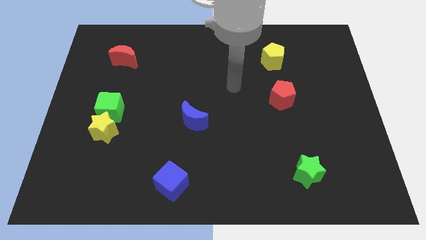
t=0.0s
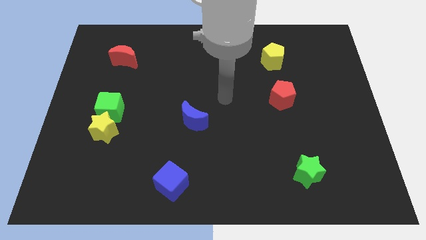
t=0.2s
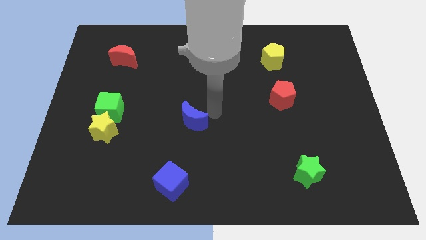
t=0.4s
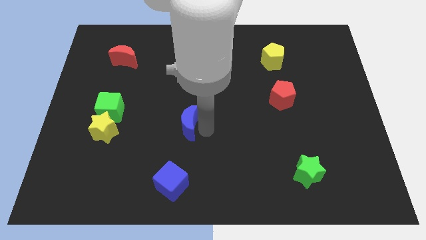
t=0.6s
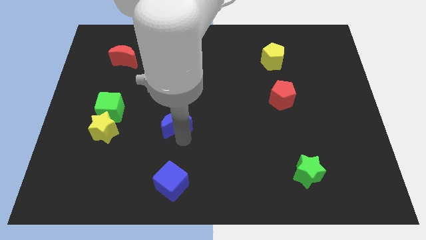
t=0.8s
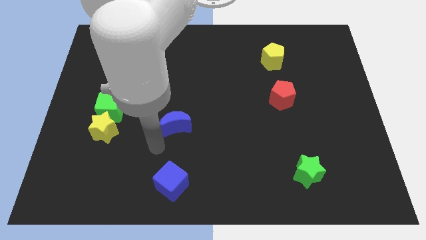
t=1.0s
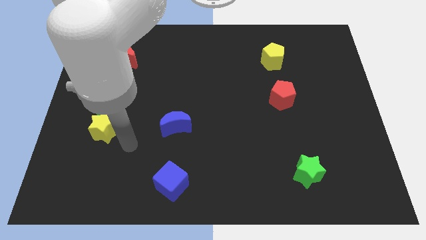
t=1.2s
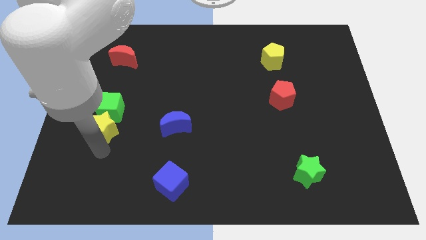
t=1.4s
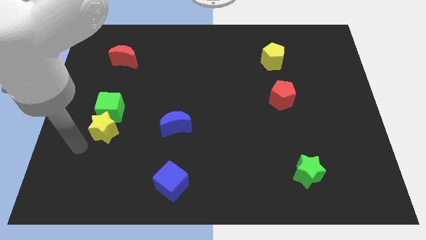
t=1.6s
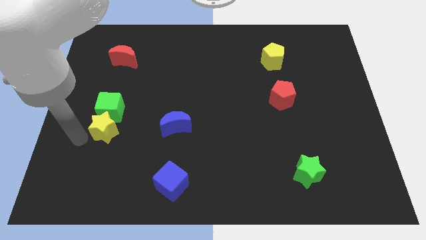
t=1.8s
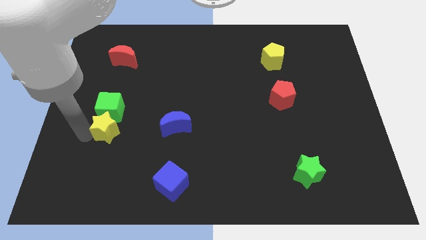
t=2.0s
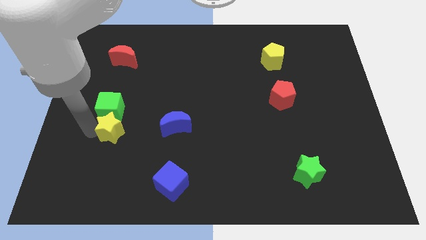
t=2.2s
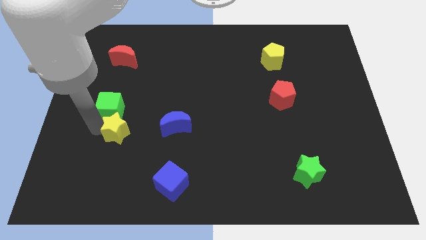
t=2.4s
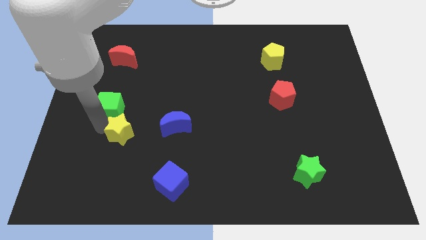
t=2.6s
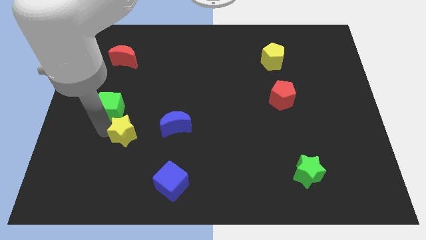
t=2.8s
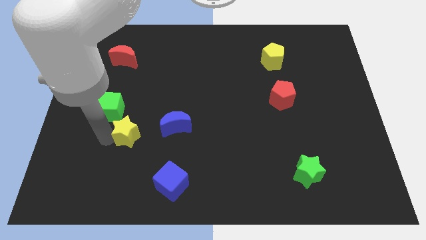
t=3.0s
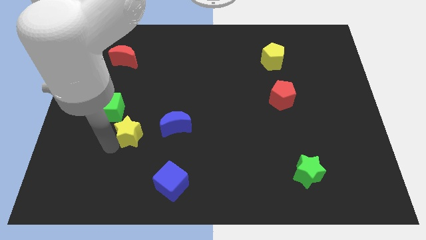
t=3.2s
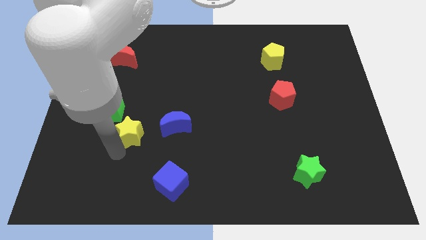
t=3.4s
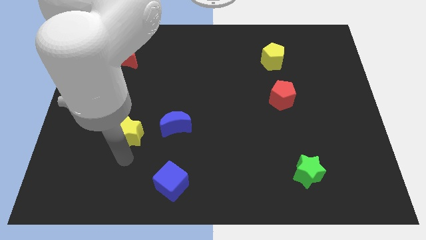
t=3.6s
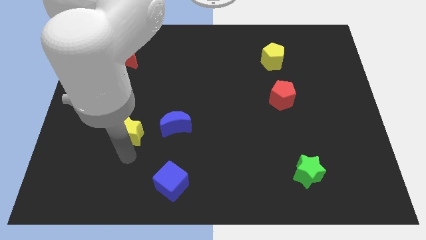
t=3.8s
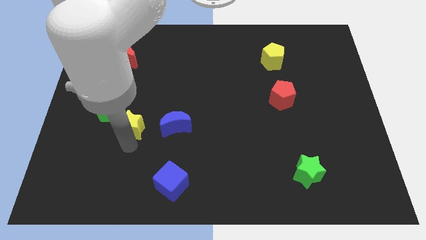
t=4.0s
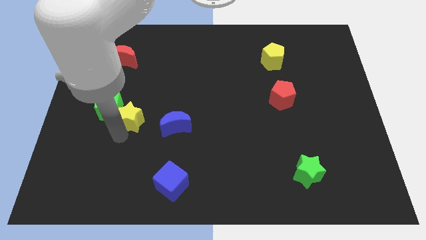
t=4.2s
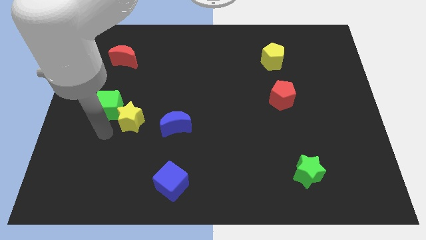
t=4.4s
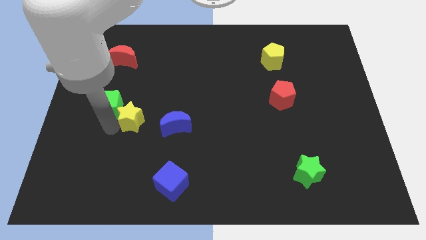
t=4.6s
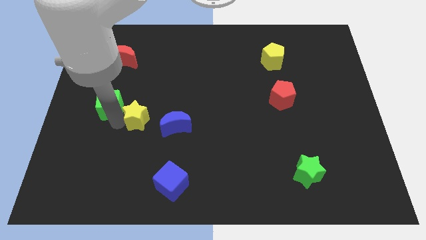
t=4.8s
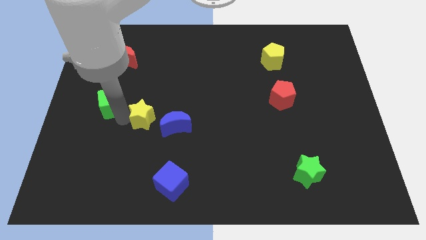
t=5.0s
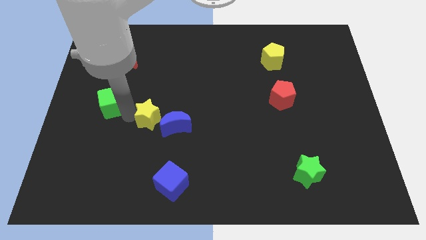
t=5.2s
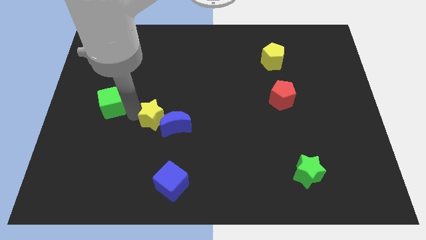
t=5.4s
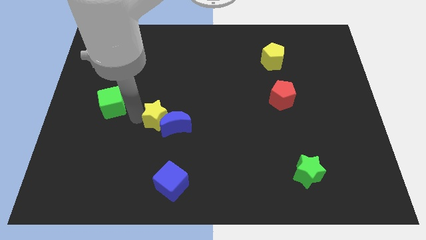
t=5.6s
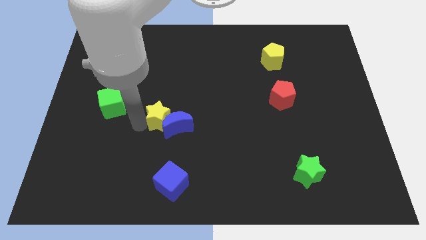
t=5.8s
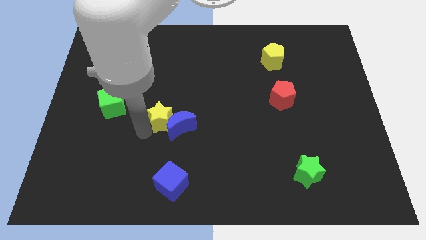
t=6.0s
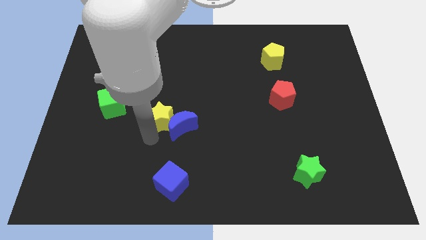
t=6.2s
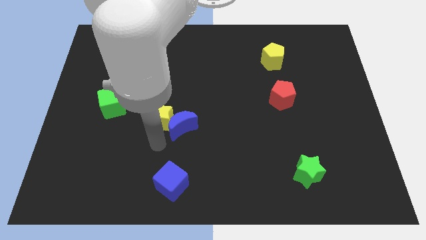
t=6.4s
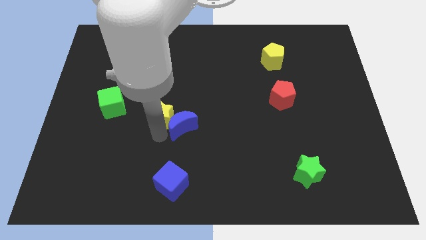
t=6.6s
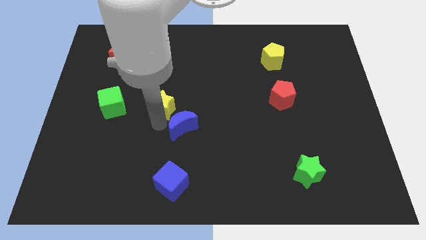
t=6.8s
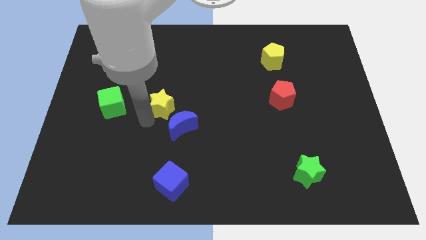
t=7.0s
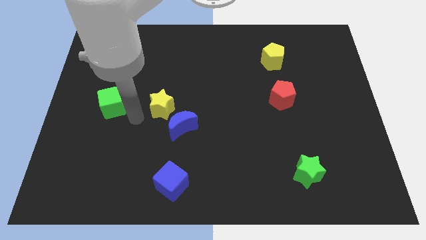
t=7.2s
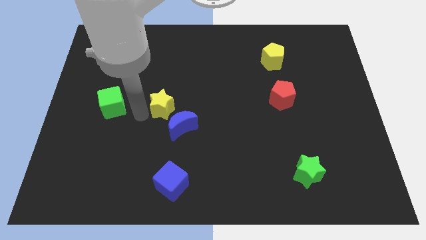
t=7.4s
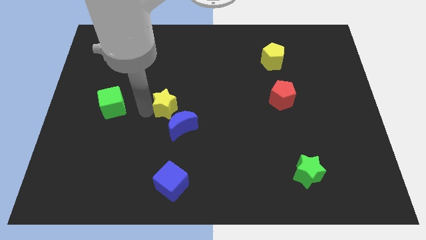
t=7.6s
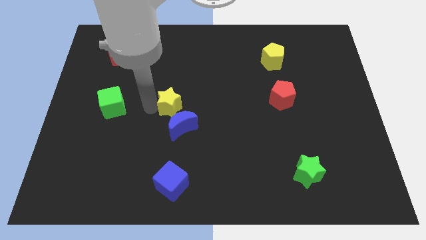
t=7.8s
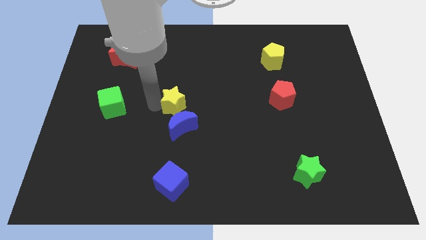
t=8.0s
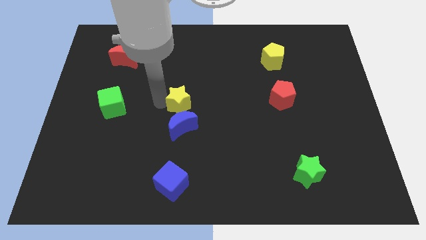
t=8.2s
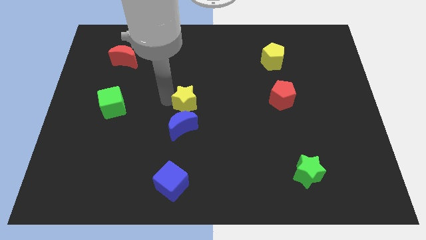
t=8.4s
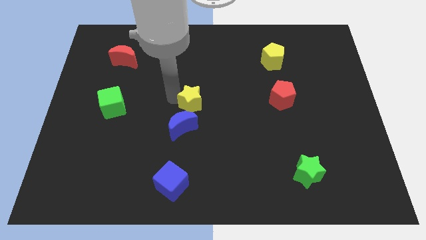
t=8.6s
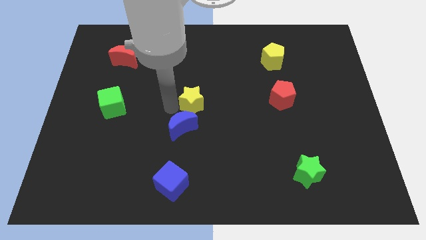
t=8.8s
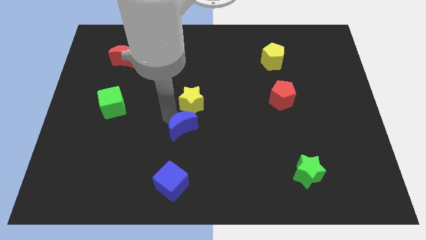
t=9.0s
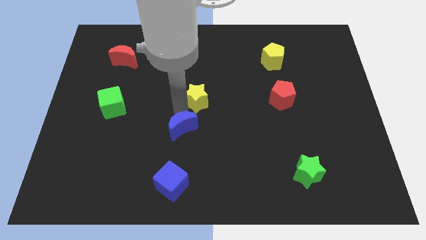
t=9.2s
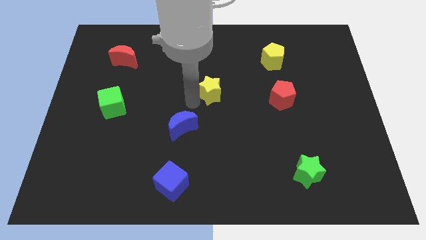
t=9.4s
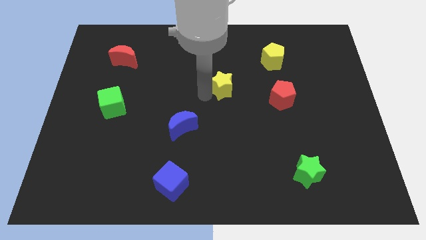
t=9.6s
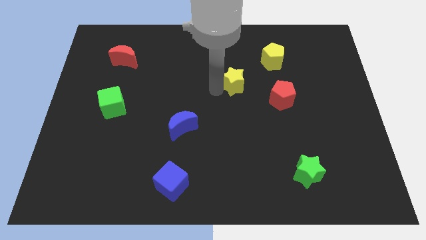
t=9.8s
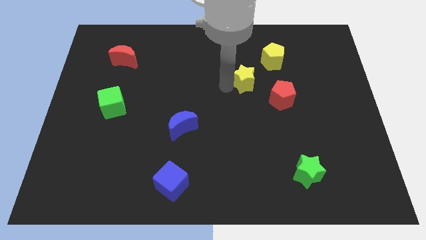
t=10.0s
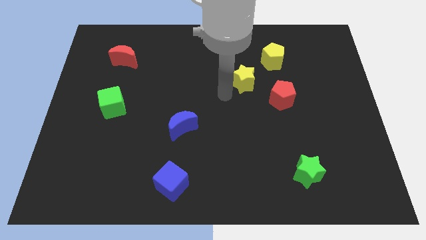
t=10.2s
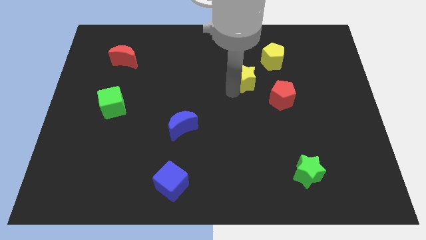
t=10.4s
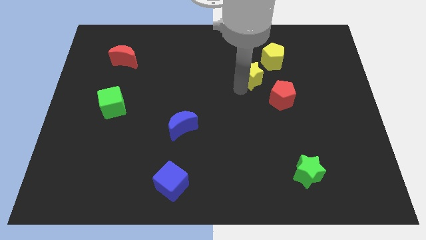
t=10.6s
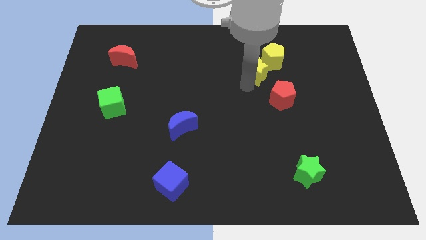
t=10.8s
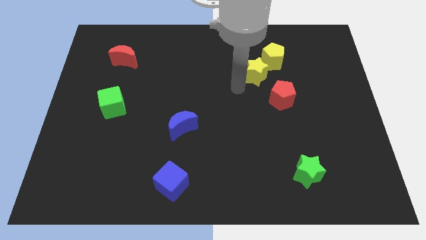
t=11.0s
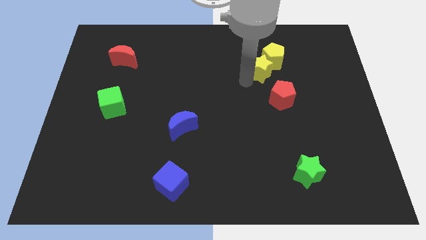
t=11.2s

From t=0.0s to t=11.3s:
move the yellow star to the yellow pentagon
